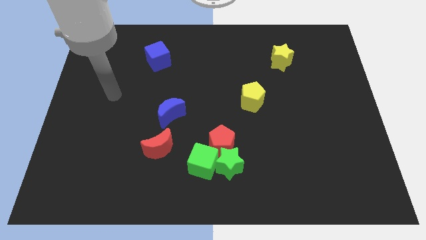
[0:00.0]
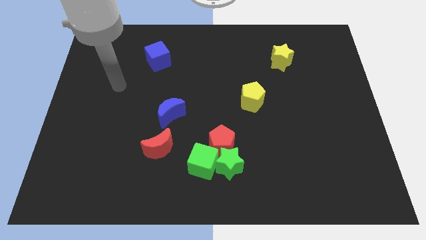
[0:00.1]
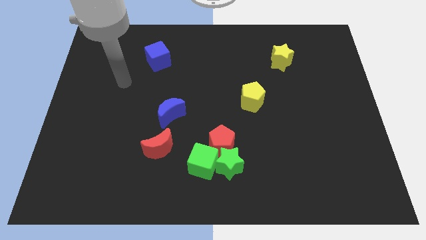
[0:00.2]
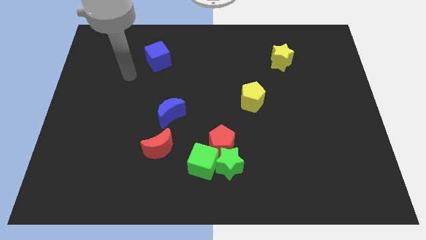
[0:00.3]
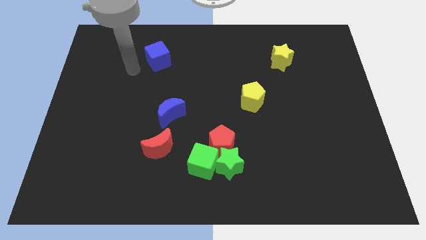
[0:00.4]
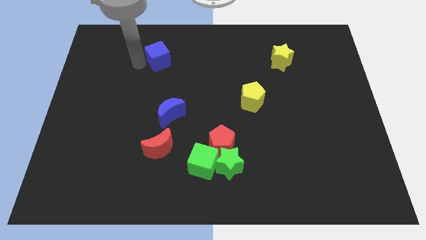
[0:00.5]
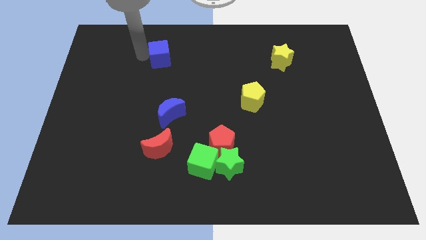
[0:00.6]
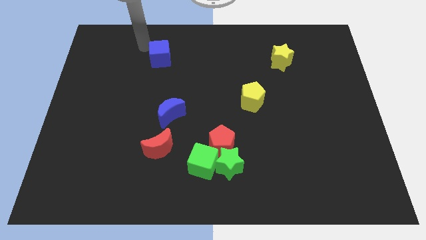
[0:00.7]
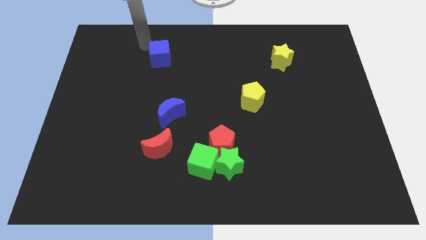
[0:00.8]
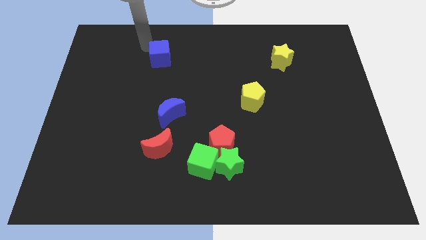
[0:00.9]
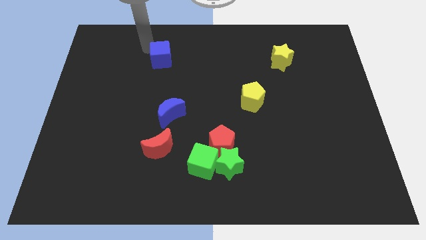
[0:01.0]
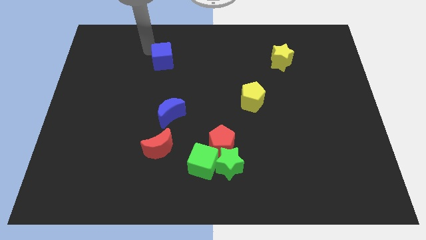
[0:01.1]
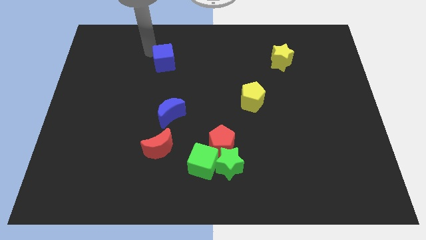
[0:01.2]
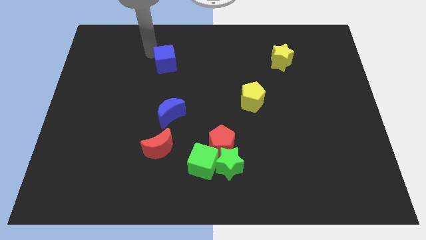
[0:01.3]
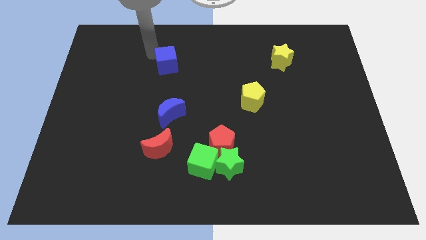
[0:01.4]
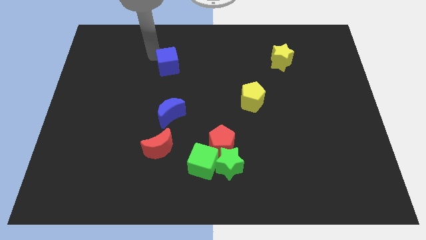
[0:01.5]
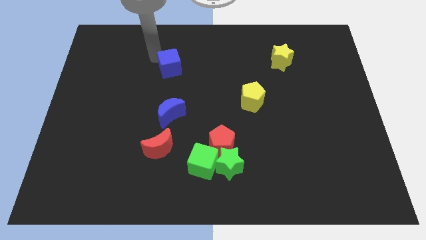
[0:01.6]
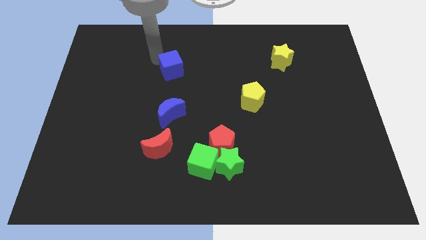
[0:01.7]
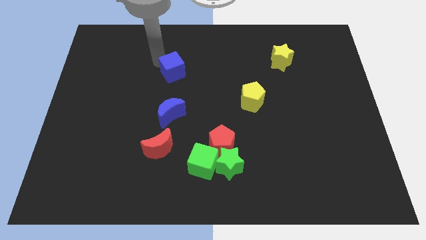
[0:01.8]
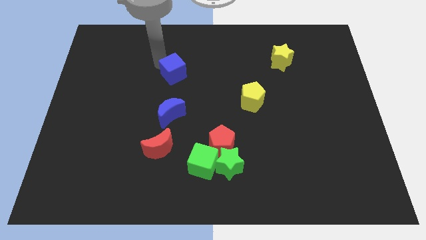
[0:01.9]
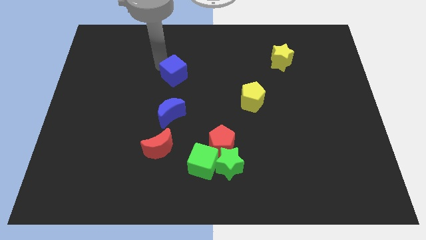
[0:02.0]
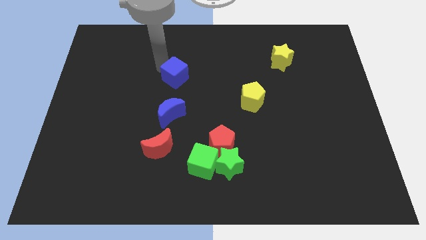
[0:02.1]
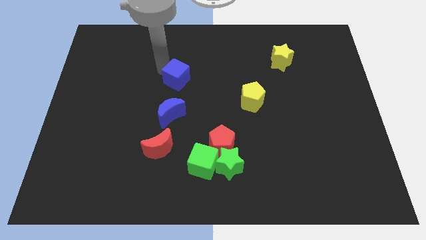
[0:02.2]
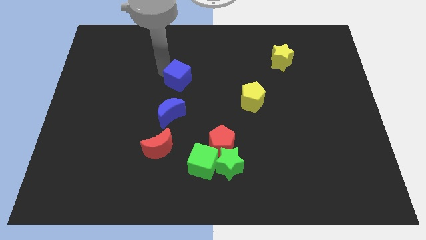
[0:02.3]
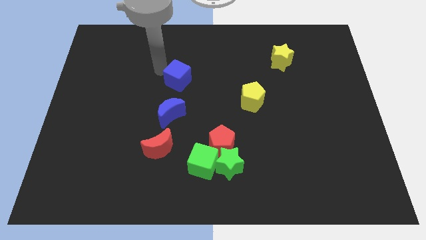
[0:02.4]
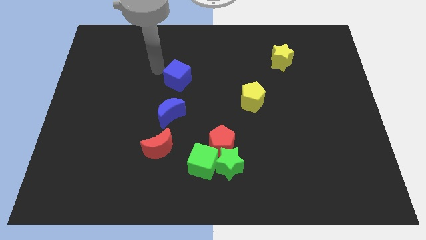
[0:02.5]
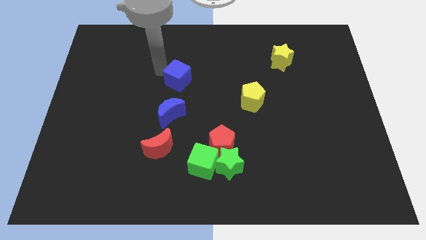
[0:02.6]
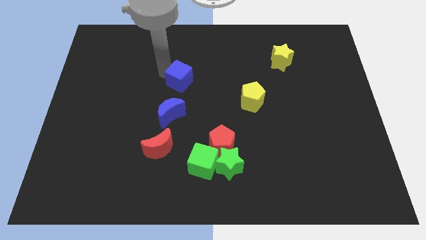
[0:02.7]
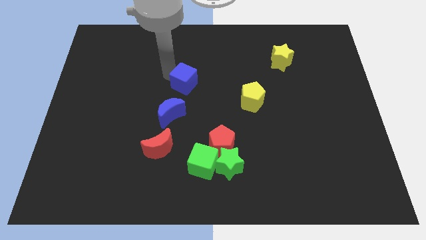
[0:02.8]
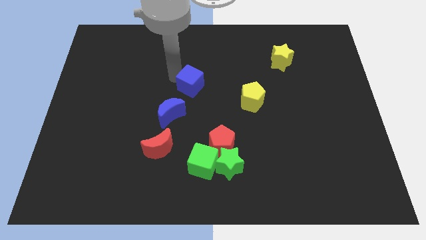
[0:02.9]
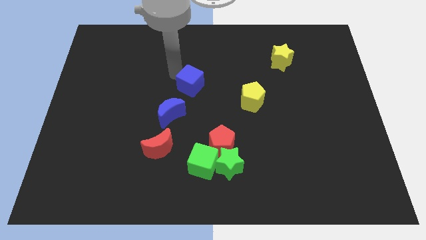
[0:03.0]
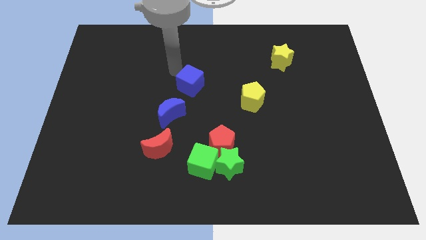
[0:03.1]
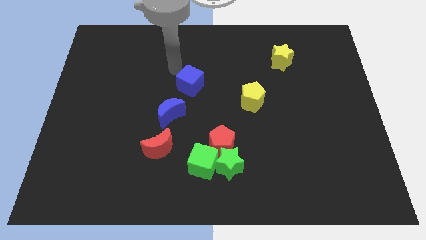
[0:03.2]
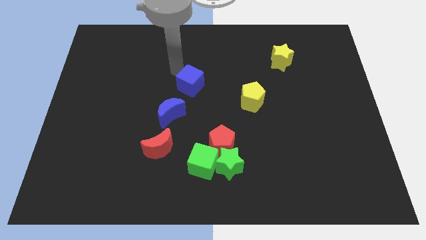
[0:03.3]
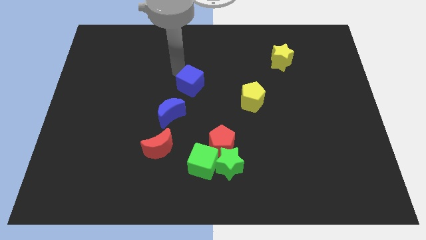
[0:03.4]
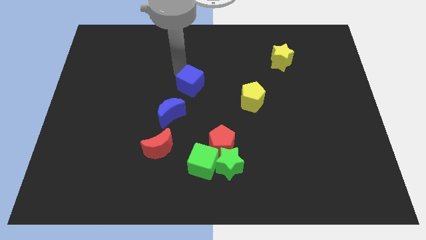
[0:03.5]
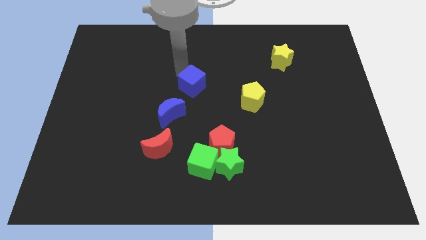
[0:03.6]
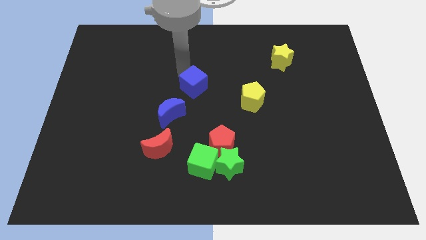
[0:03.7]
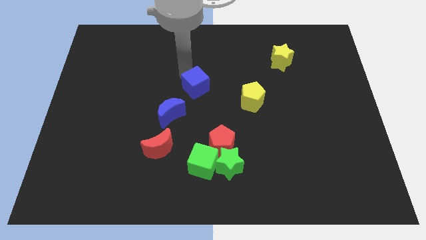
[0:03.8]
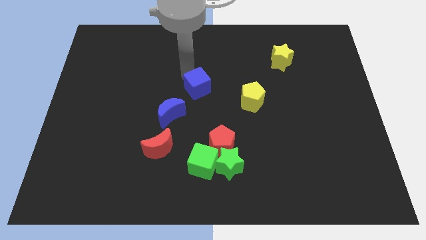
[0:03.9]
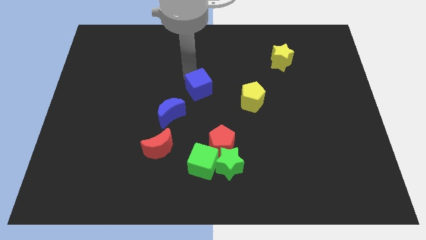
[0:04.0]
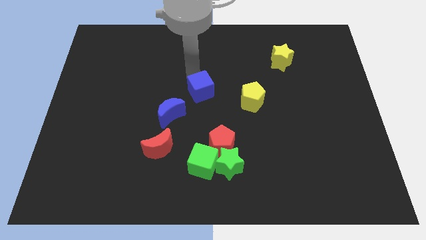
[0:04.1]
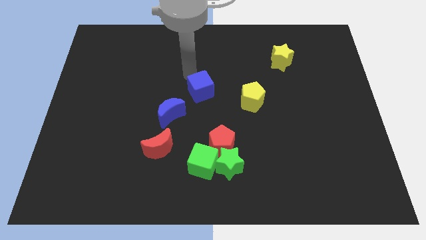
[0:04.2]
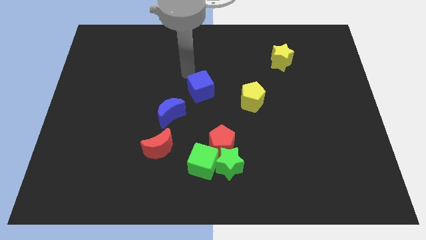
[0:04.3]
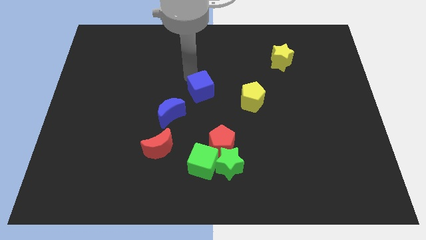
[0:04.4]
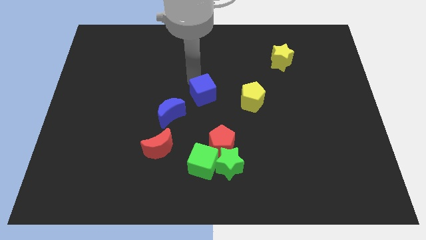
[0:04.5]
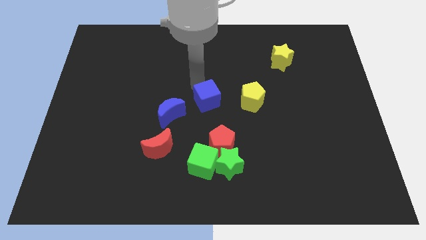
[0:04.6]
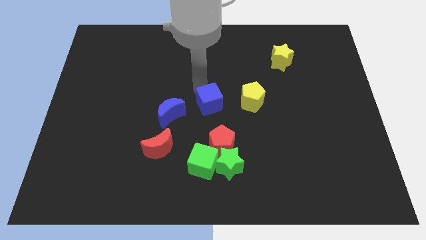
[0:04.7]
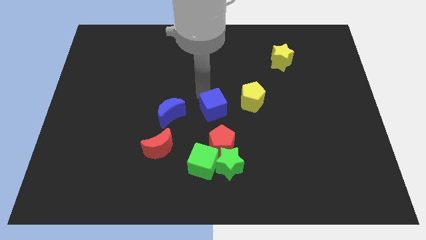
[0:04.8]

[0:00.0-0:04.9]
slide the blue cube to the bottom left of the yellow pentagon

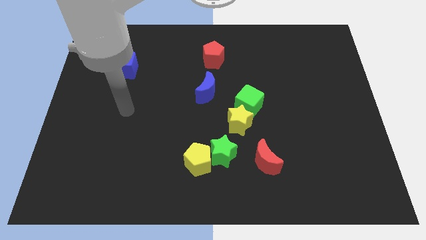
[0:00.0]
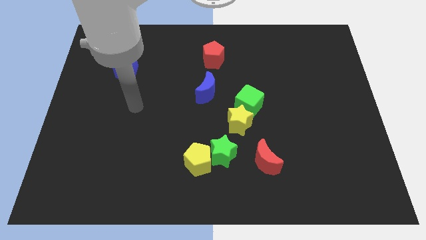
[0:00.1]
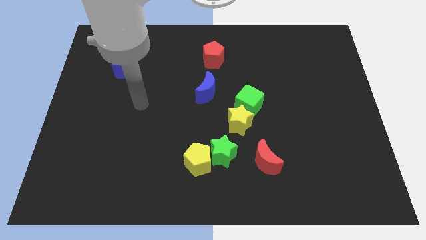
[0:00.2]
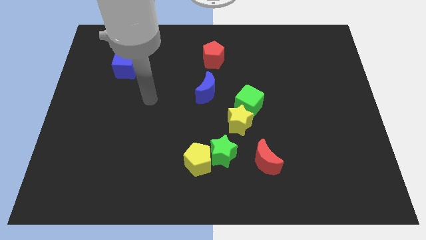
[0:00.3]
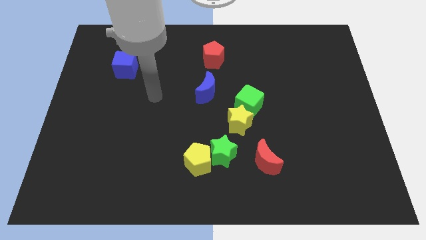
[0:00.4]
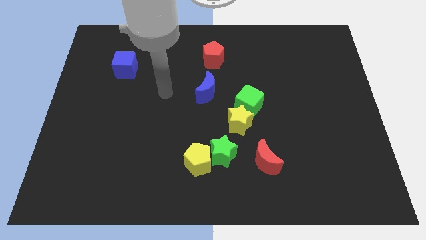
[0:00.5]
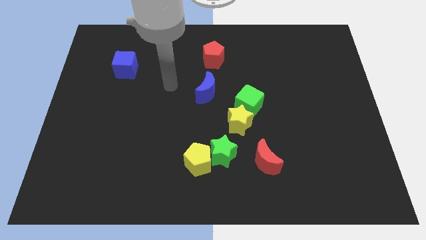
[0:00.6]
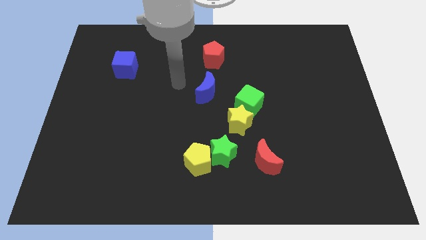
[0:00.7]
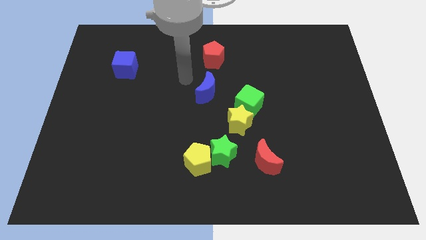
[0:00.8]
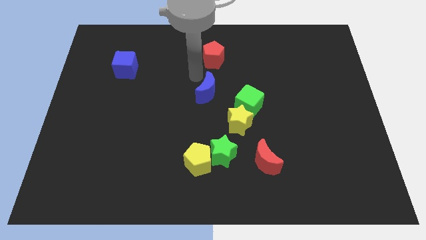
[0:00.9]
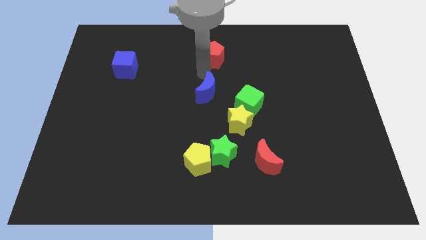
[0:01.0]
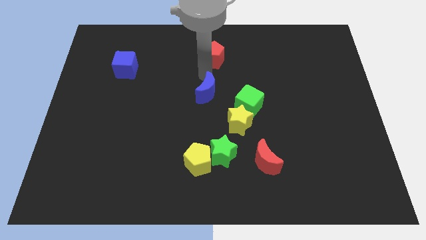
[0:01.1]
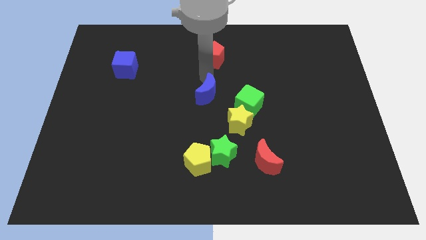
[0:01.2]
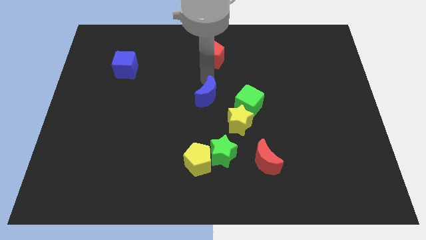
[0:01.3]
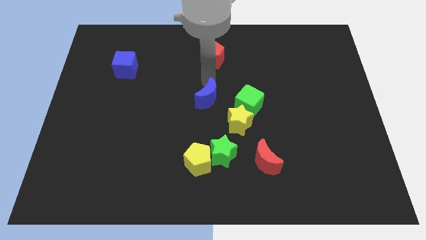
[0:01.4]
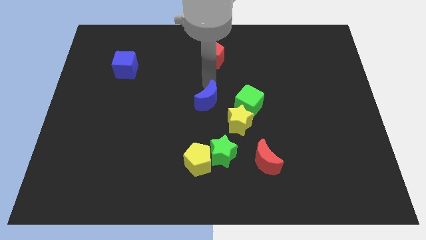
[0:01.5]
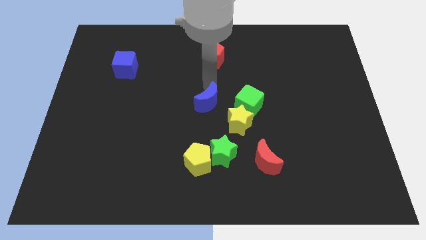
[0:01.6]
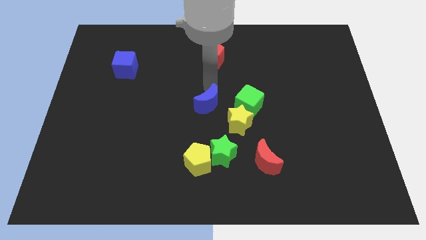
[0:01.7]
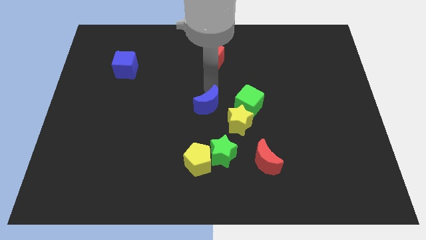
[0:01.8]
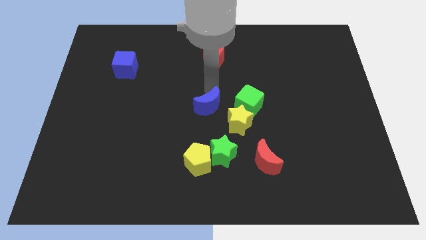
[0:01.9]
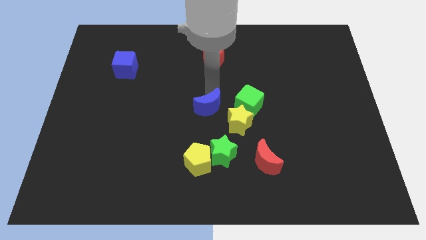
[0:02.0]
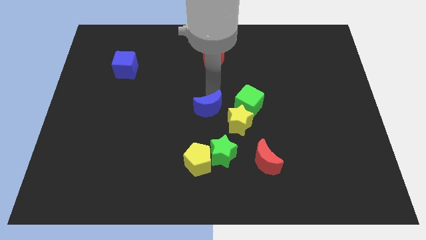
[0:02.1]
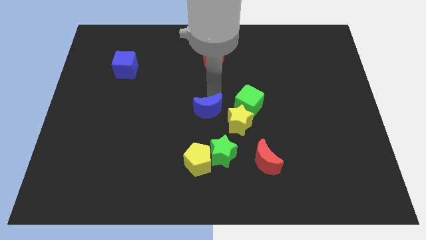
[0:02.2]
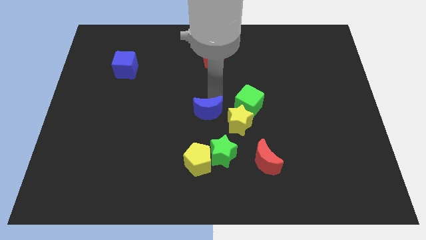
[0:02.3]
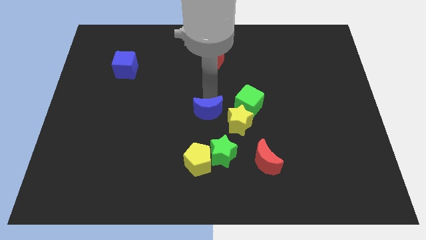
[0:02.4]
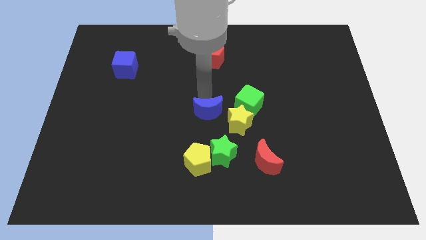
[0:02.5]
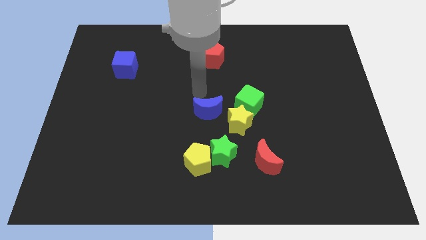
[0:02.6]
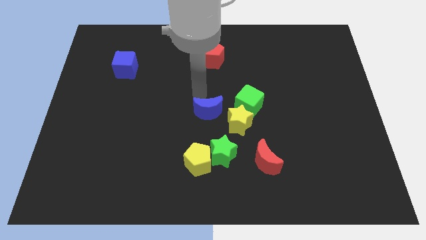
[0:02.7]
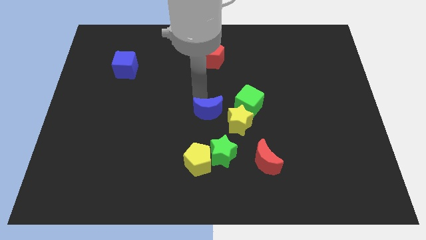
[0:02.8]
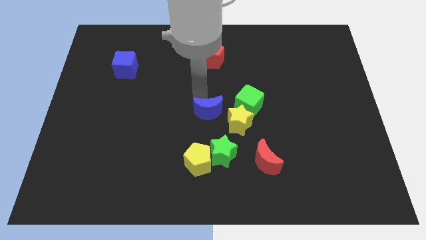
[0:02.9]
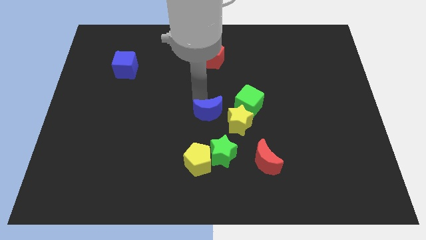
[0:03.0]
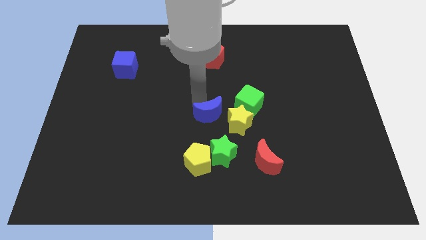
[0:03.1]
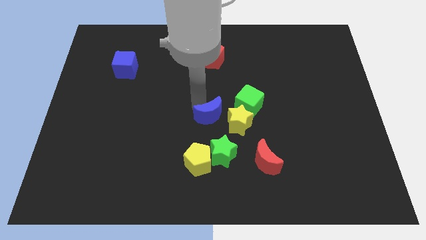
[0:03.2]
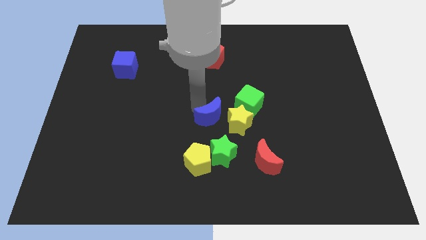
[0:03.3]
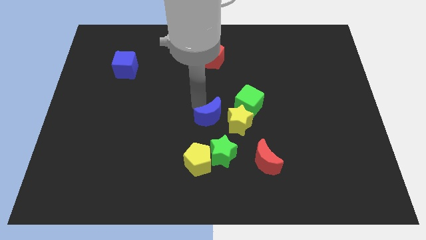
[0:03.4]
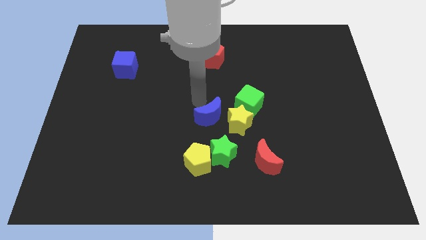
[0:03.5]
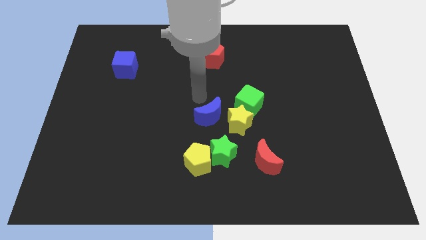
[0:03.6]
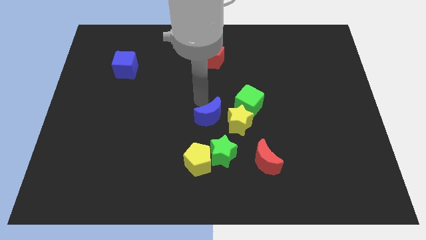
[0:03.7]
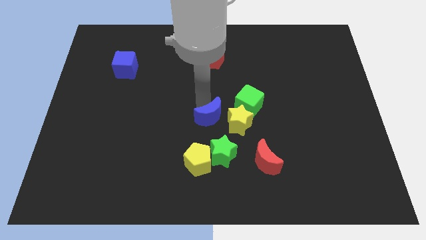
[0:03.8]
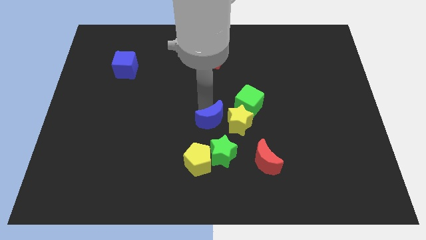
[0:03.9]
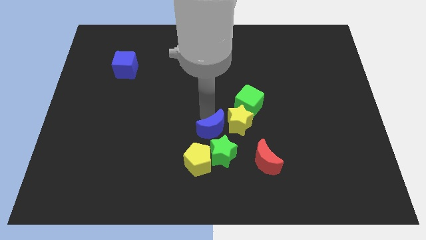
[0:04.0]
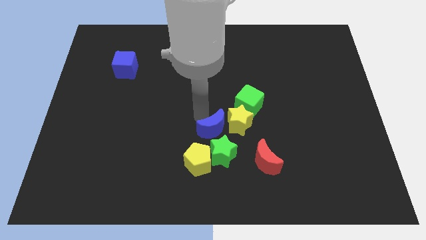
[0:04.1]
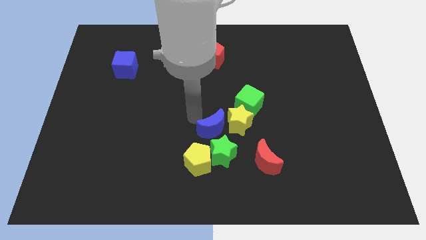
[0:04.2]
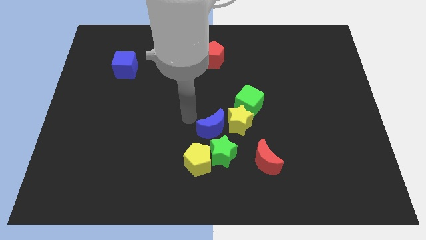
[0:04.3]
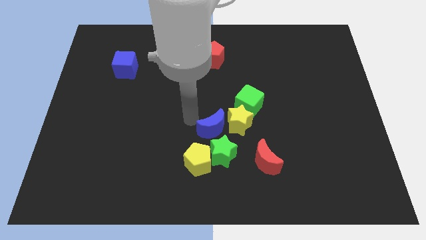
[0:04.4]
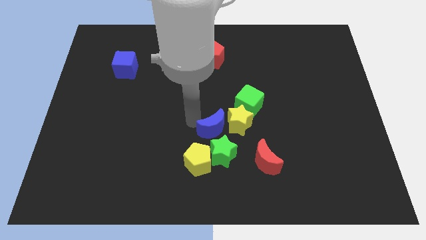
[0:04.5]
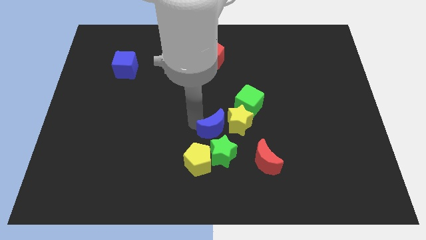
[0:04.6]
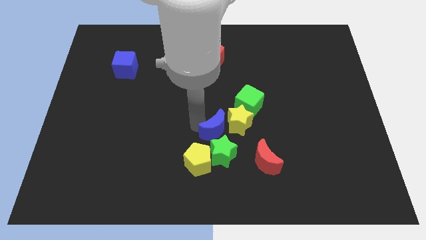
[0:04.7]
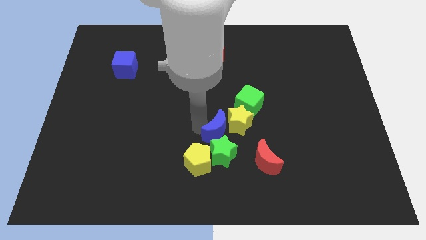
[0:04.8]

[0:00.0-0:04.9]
move the blue moon to the top left side of the red moon
